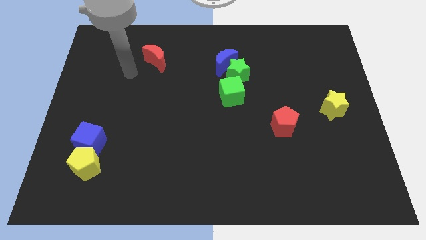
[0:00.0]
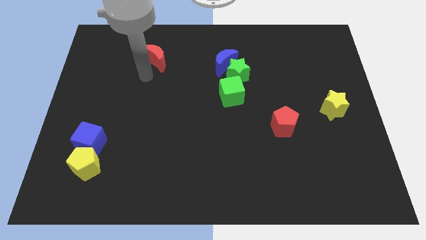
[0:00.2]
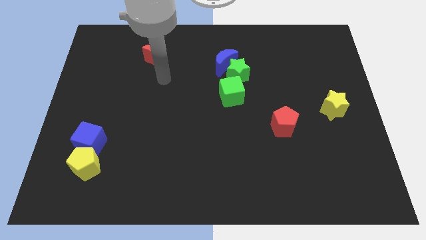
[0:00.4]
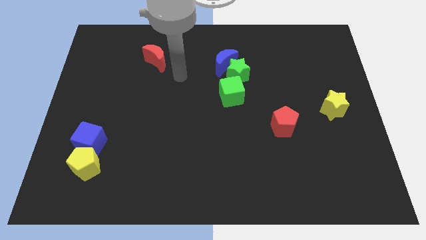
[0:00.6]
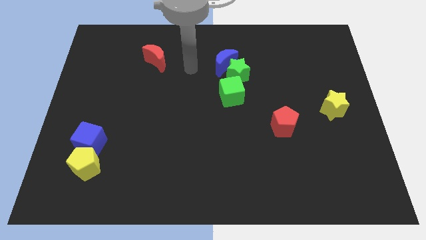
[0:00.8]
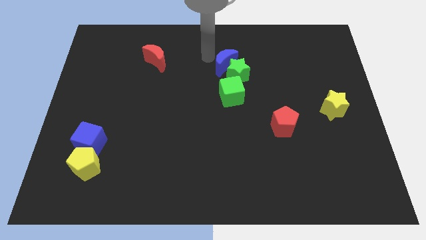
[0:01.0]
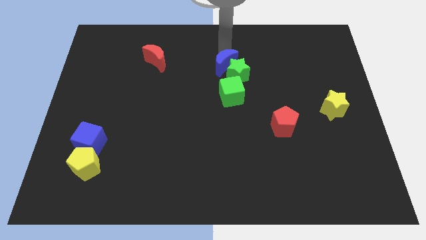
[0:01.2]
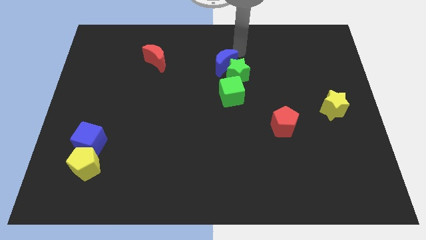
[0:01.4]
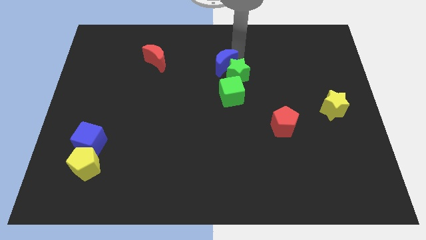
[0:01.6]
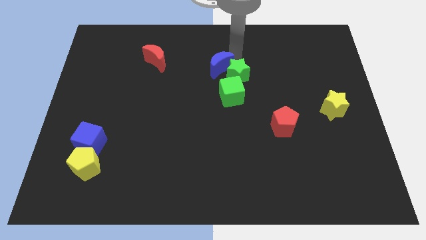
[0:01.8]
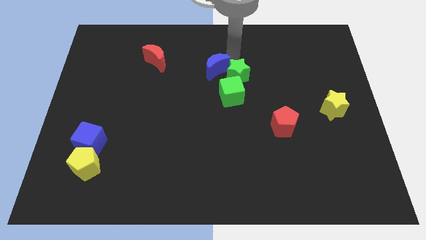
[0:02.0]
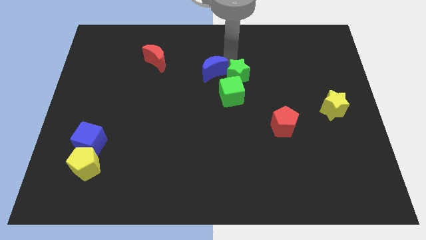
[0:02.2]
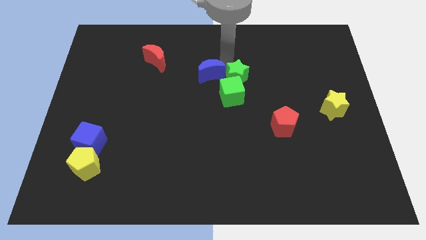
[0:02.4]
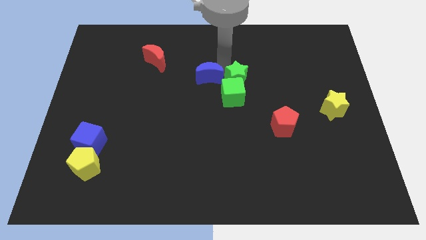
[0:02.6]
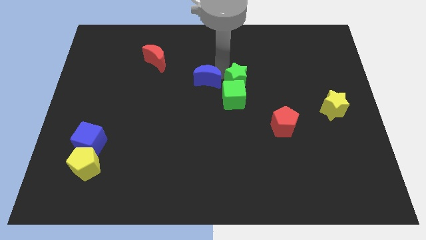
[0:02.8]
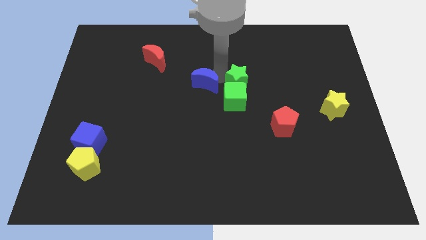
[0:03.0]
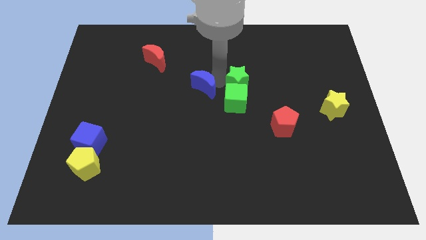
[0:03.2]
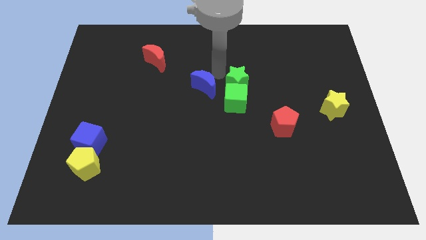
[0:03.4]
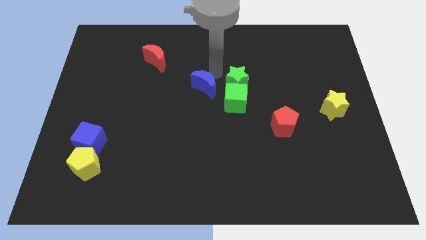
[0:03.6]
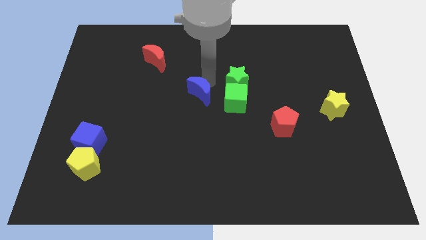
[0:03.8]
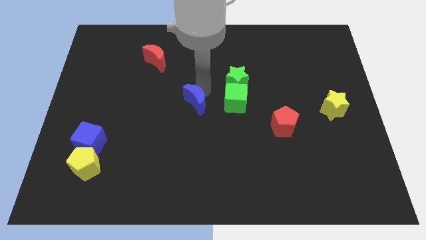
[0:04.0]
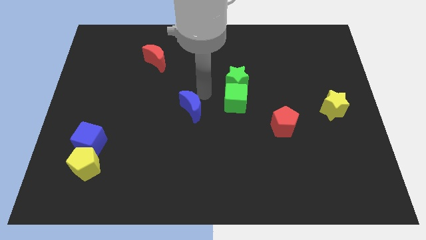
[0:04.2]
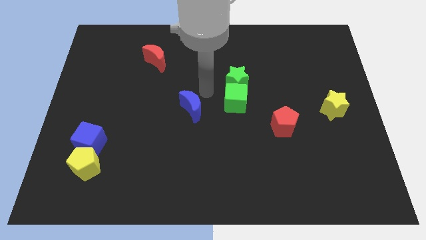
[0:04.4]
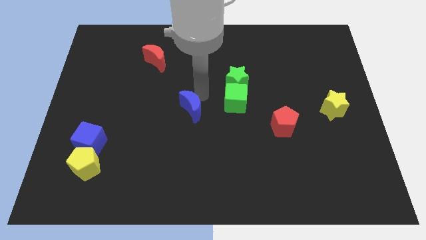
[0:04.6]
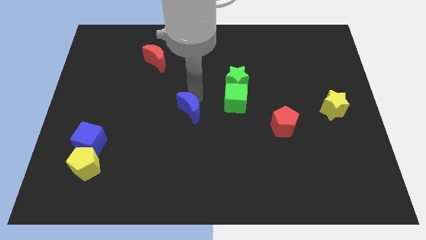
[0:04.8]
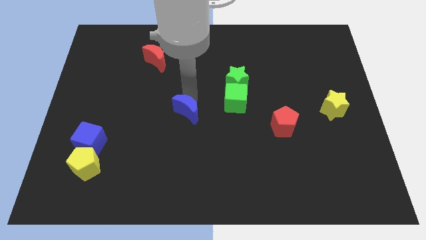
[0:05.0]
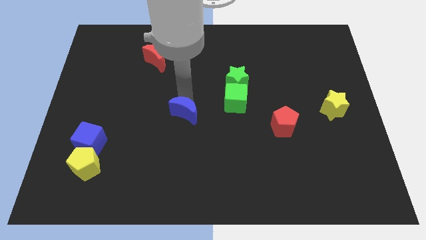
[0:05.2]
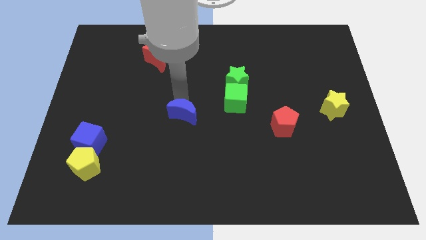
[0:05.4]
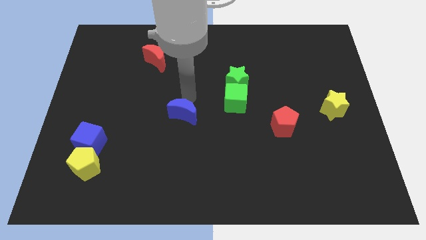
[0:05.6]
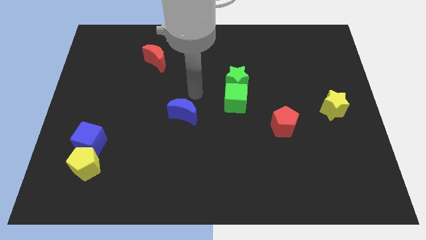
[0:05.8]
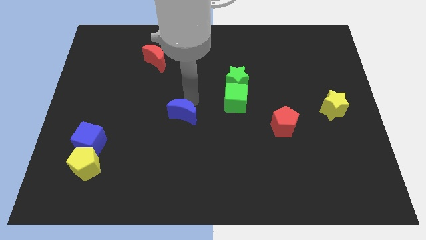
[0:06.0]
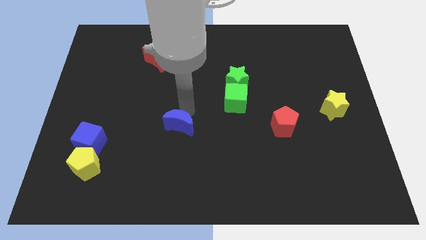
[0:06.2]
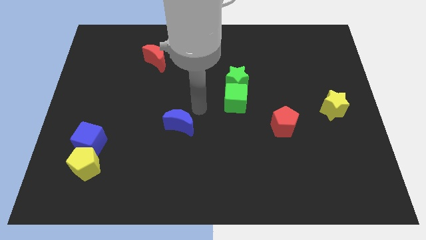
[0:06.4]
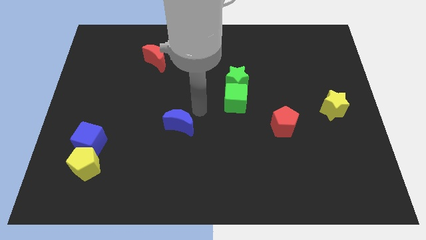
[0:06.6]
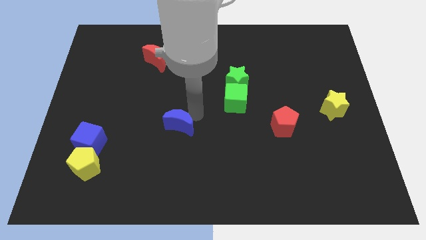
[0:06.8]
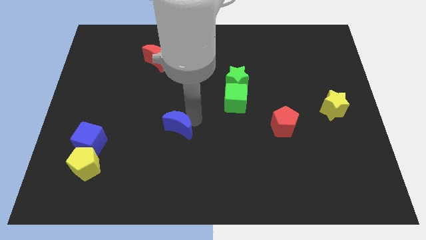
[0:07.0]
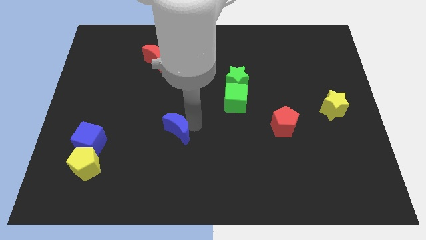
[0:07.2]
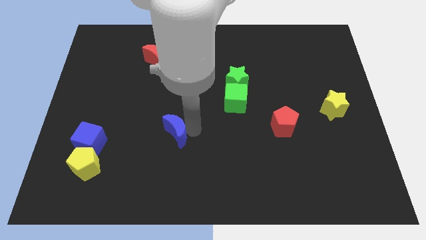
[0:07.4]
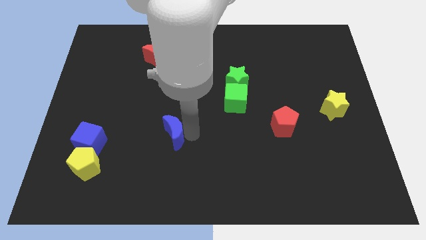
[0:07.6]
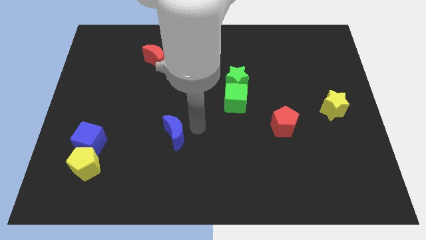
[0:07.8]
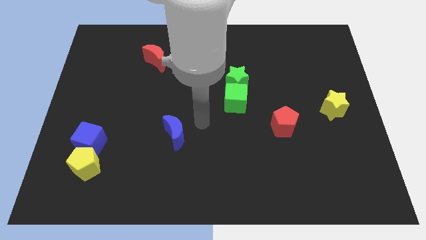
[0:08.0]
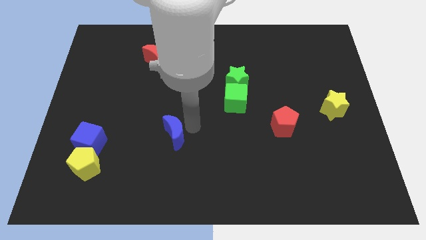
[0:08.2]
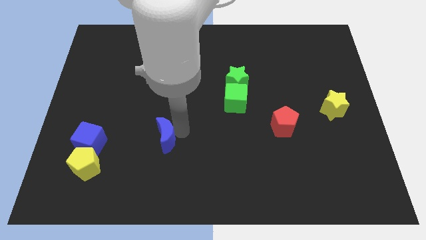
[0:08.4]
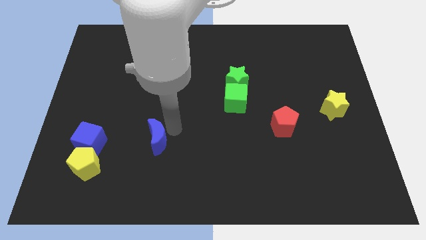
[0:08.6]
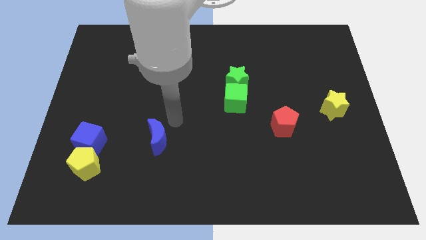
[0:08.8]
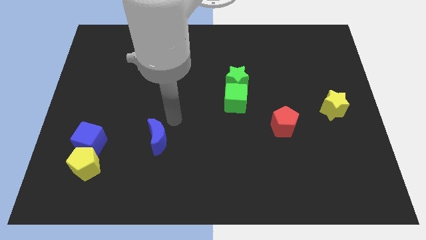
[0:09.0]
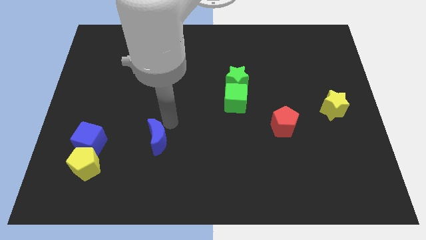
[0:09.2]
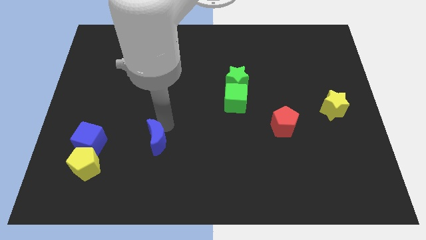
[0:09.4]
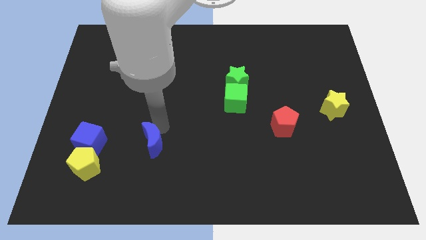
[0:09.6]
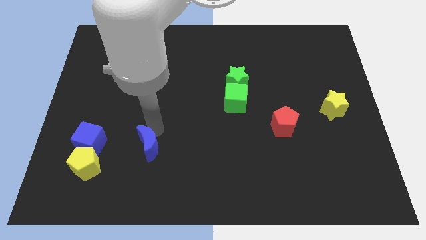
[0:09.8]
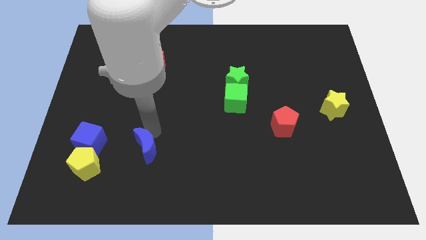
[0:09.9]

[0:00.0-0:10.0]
put the blue moon right of the yellow pentagon

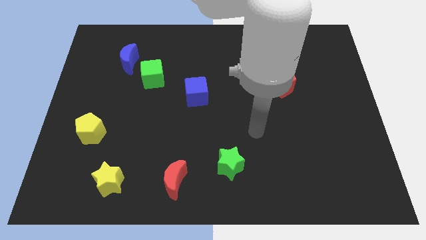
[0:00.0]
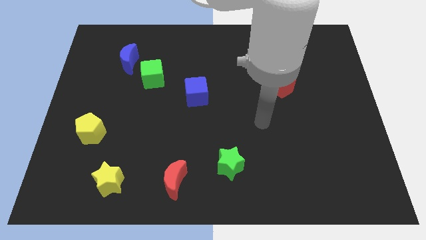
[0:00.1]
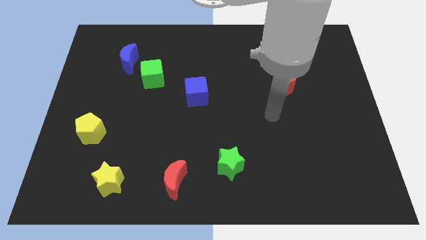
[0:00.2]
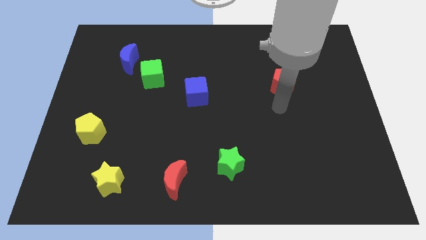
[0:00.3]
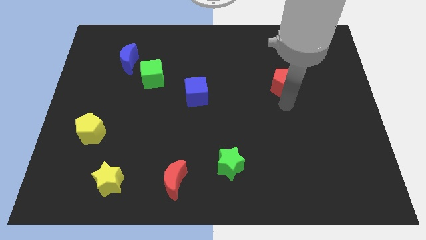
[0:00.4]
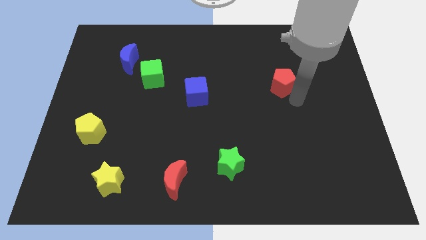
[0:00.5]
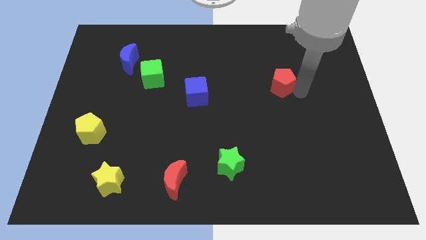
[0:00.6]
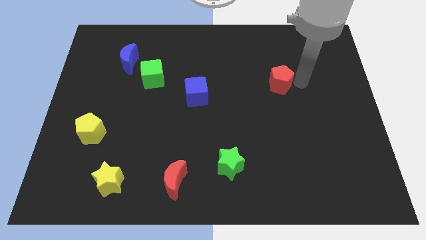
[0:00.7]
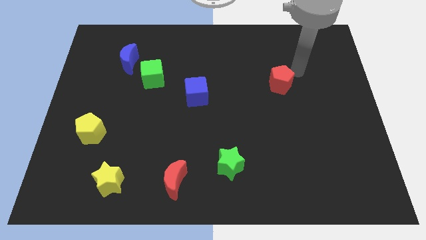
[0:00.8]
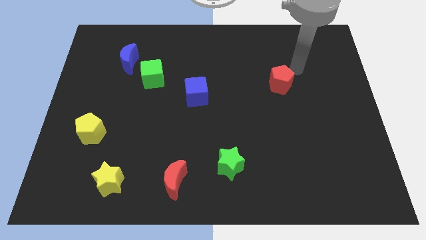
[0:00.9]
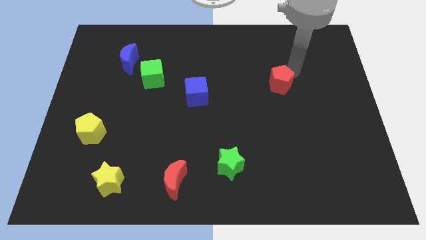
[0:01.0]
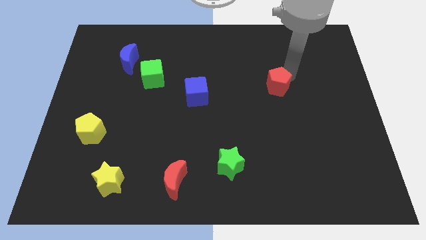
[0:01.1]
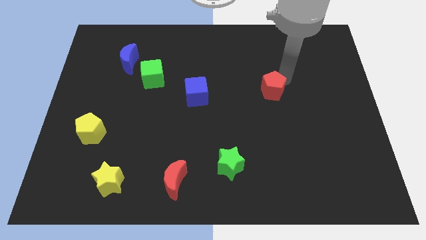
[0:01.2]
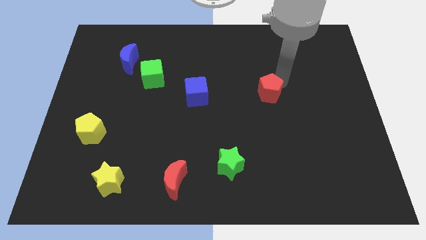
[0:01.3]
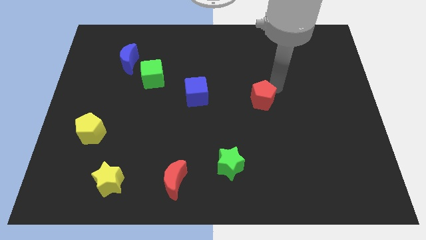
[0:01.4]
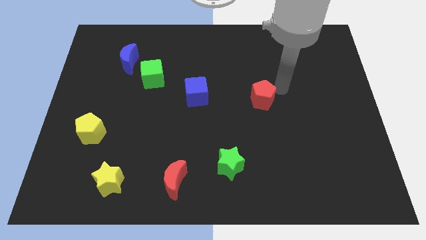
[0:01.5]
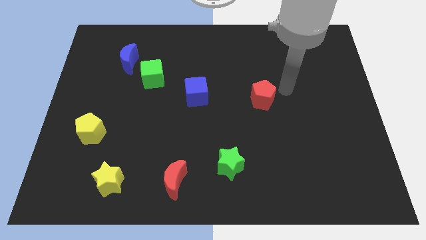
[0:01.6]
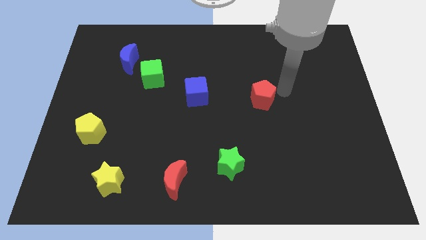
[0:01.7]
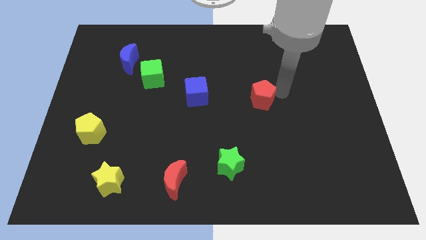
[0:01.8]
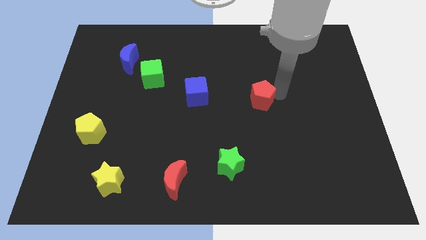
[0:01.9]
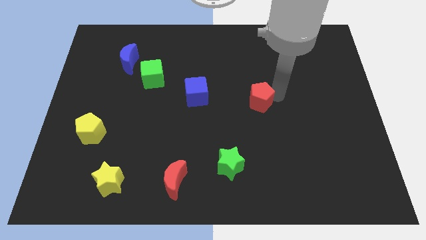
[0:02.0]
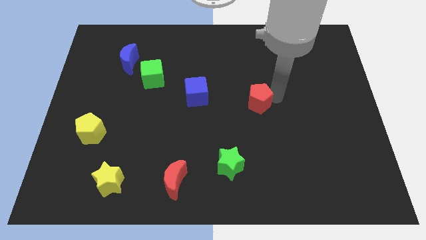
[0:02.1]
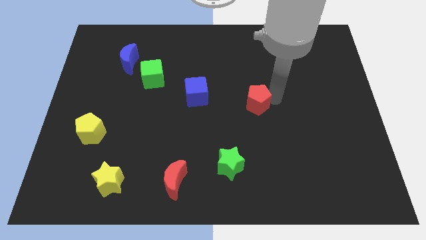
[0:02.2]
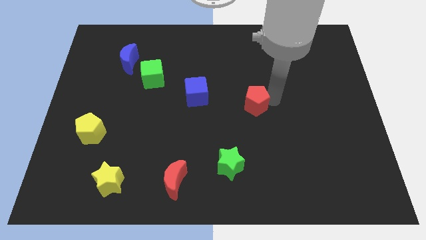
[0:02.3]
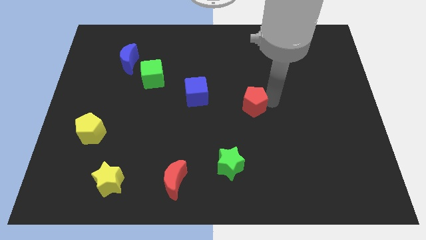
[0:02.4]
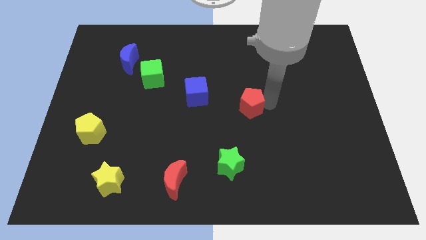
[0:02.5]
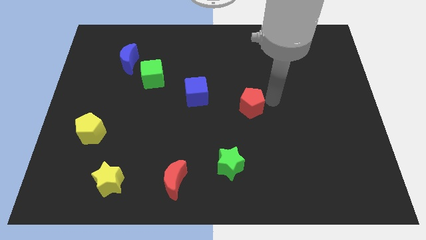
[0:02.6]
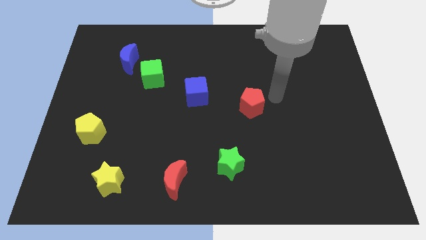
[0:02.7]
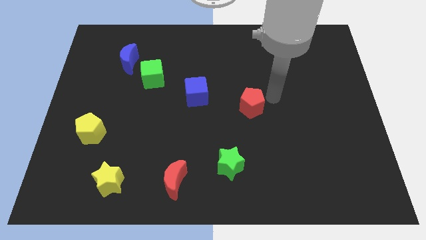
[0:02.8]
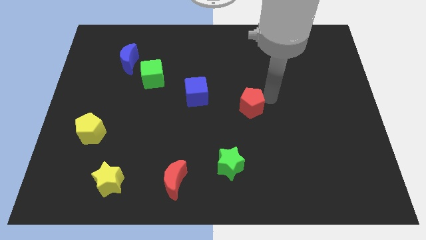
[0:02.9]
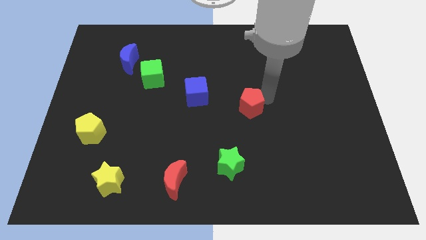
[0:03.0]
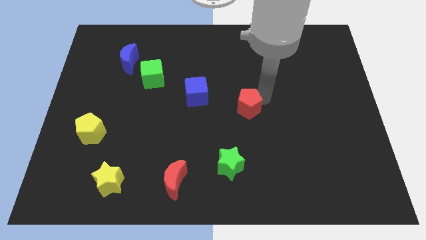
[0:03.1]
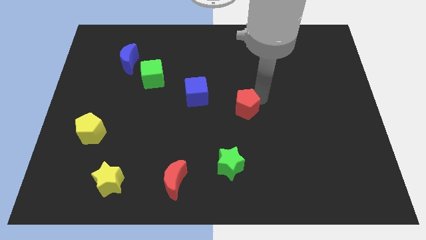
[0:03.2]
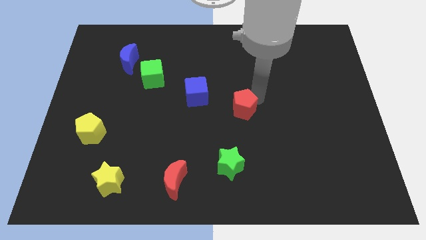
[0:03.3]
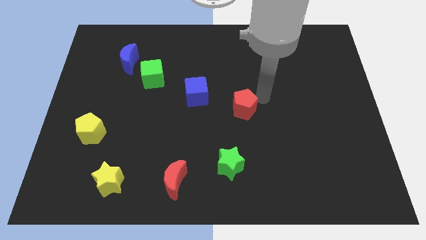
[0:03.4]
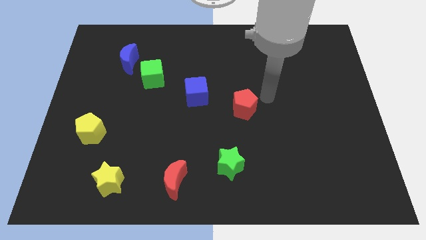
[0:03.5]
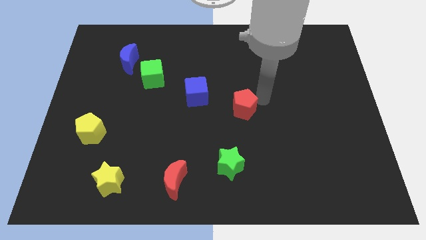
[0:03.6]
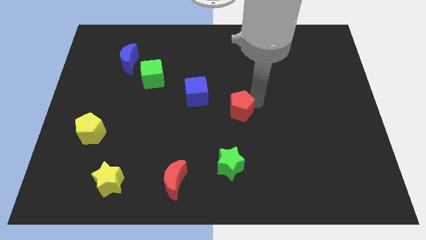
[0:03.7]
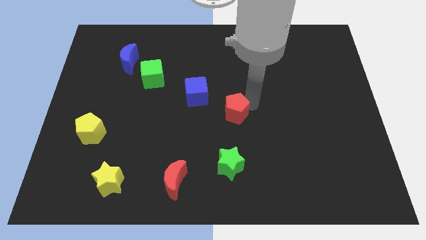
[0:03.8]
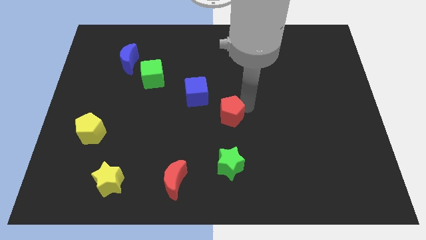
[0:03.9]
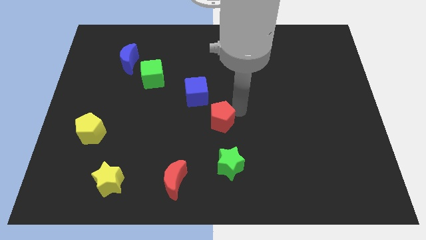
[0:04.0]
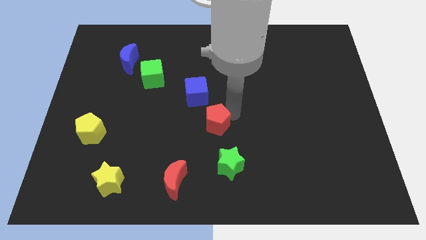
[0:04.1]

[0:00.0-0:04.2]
slide the red pentagon to the bottom side of the blue cube
